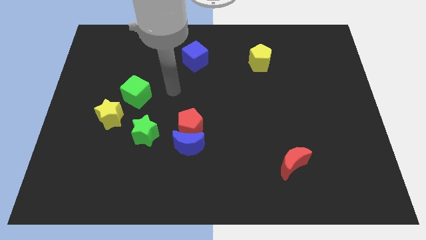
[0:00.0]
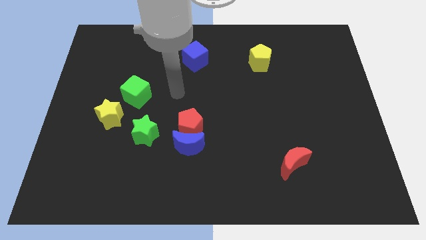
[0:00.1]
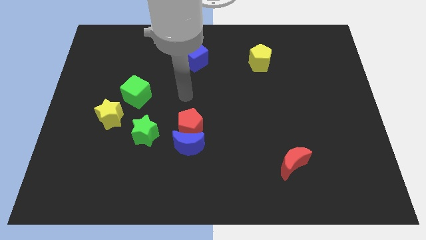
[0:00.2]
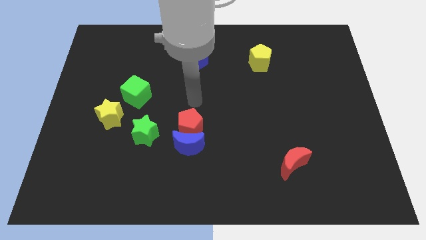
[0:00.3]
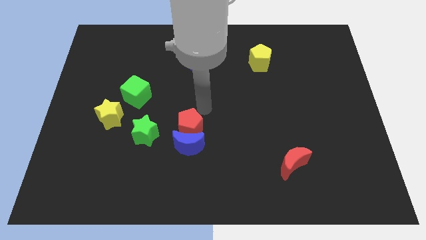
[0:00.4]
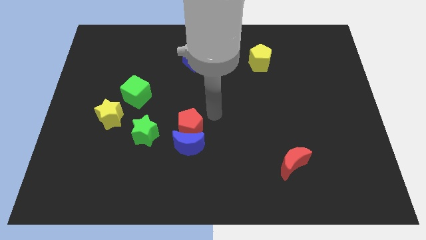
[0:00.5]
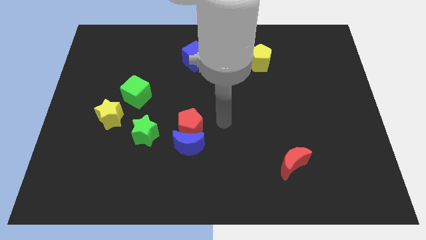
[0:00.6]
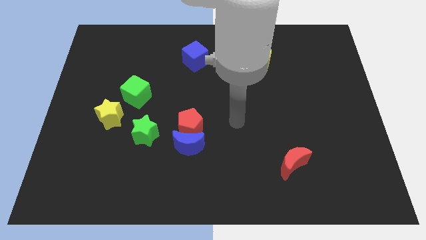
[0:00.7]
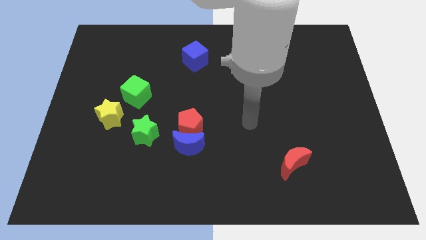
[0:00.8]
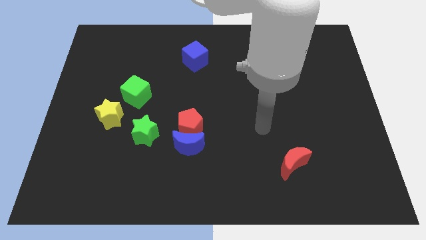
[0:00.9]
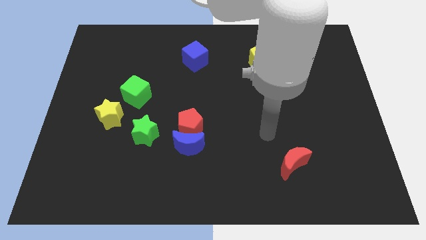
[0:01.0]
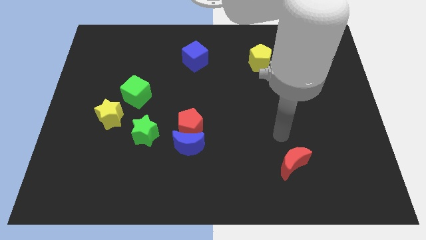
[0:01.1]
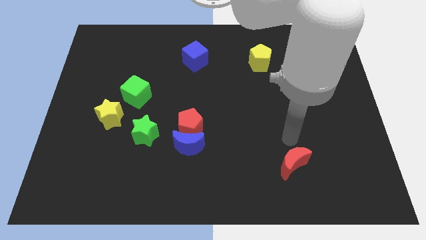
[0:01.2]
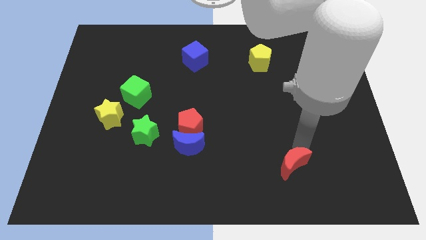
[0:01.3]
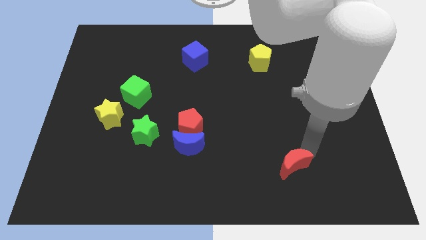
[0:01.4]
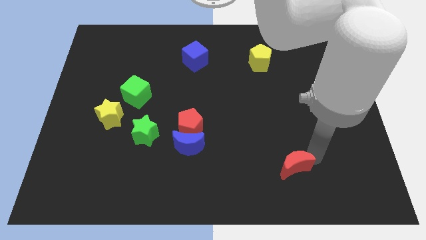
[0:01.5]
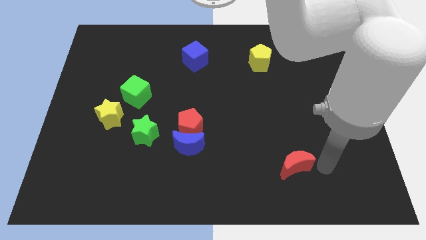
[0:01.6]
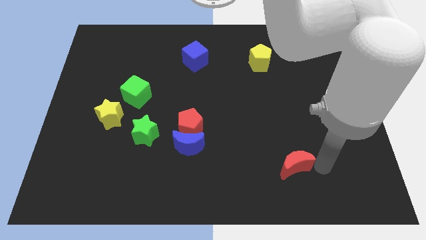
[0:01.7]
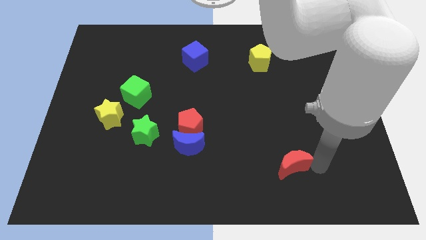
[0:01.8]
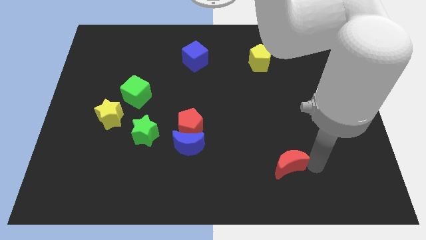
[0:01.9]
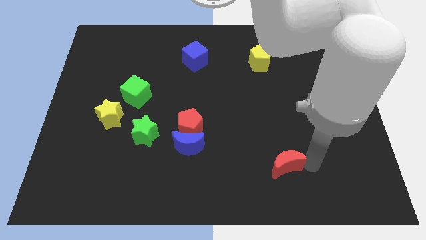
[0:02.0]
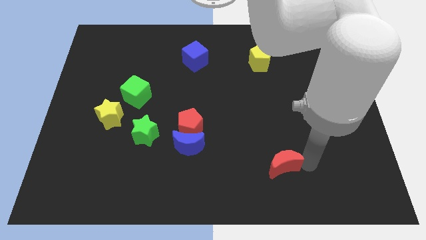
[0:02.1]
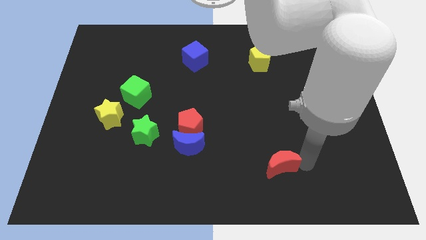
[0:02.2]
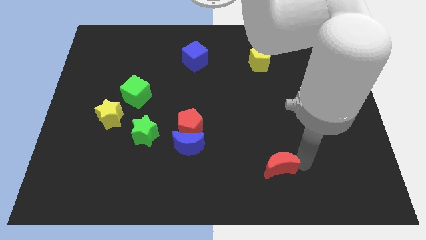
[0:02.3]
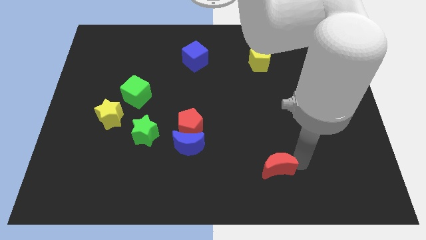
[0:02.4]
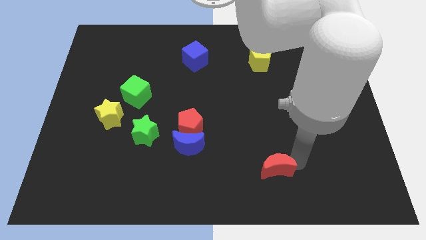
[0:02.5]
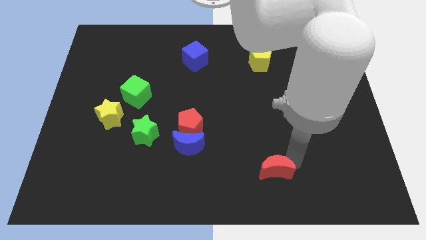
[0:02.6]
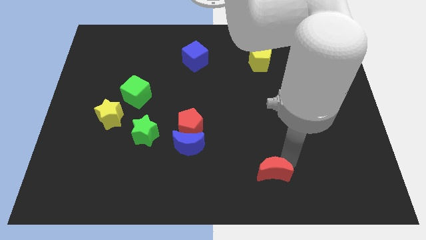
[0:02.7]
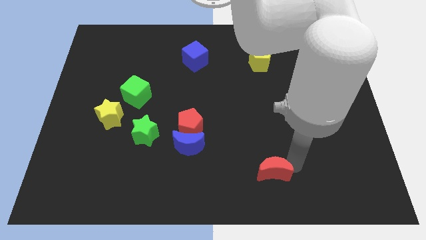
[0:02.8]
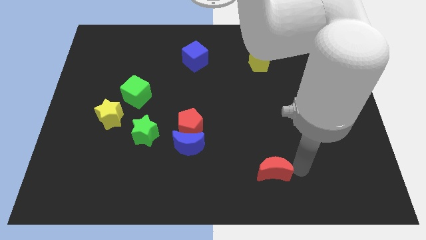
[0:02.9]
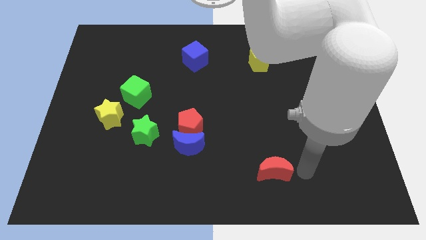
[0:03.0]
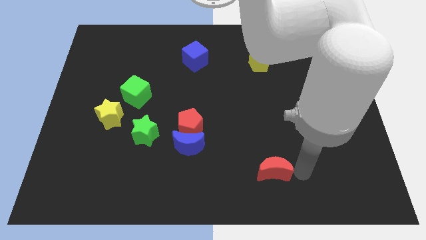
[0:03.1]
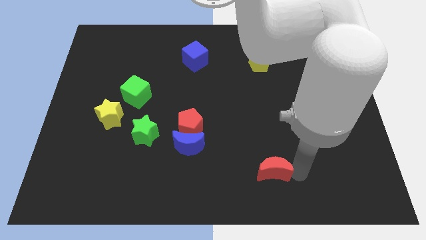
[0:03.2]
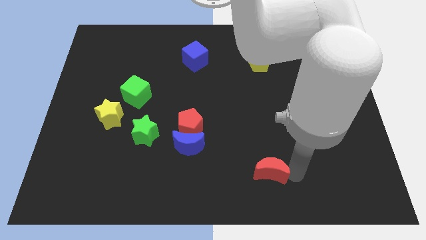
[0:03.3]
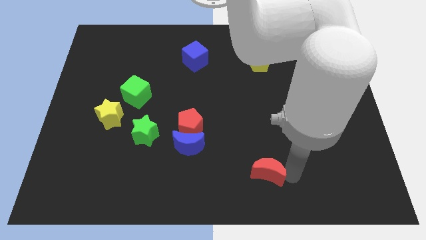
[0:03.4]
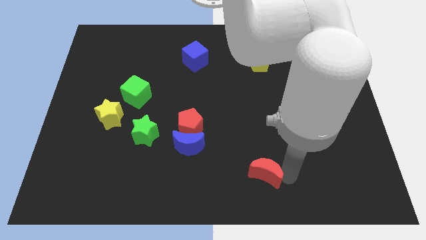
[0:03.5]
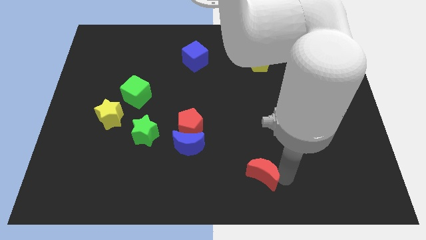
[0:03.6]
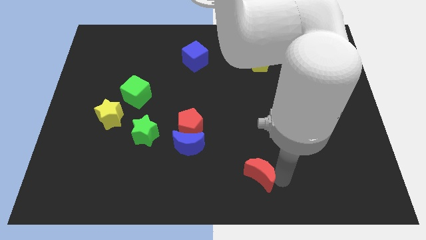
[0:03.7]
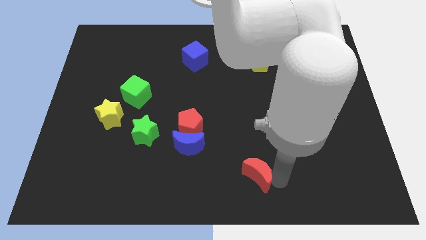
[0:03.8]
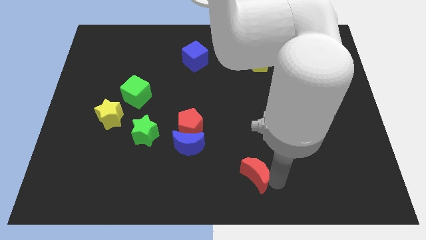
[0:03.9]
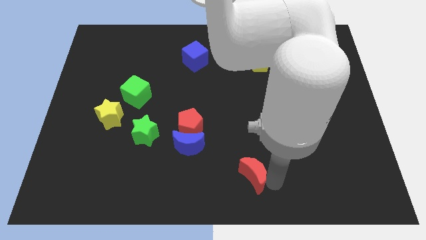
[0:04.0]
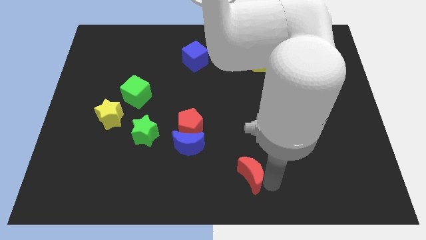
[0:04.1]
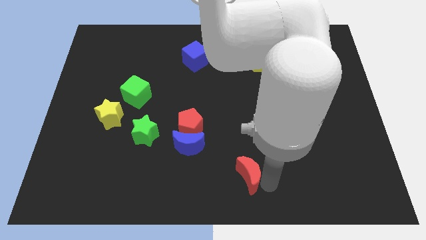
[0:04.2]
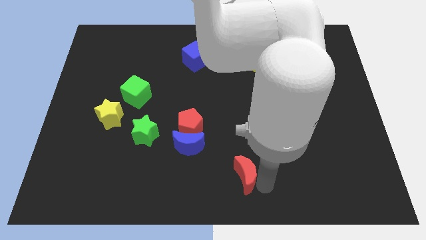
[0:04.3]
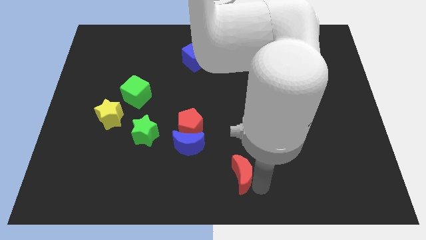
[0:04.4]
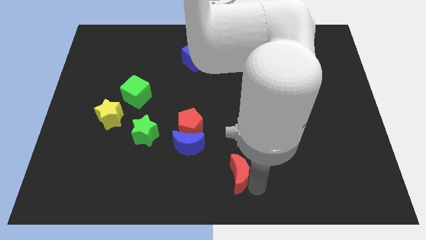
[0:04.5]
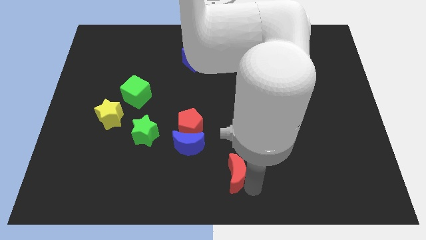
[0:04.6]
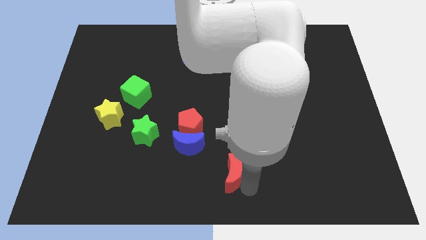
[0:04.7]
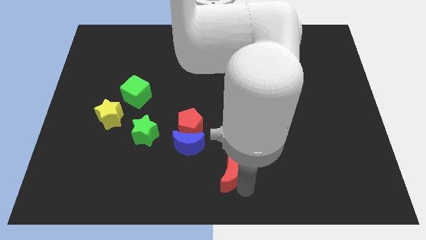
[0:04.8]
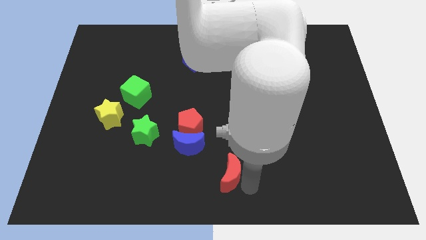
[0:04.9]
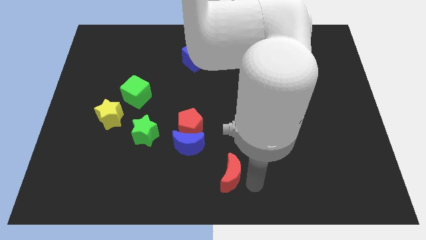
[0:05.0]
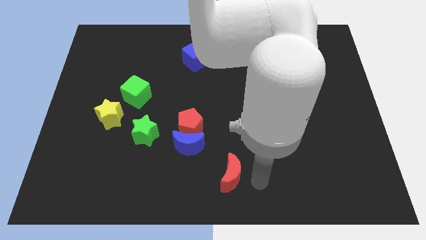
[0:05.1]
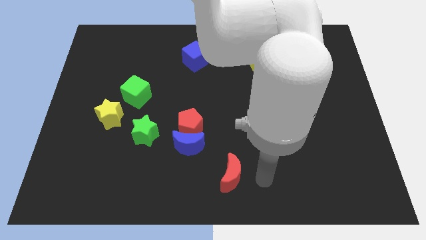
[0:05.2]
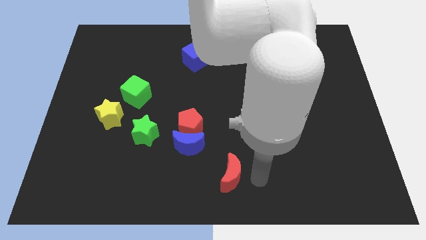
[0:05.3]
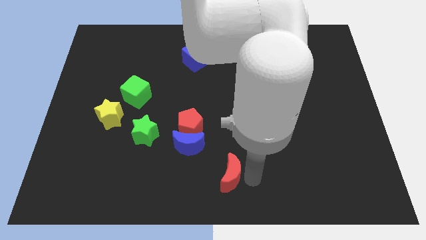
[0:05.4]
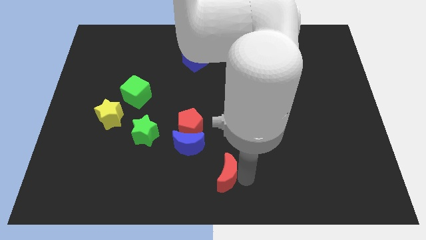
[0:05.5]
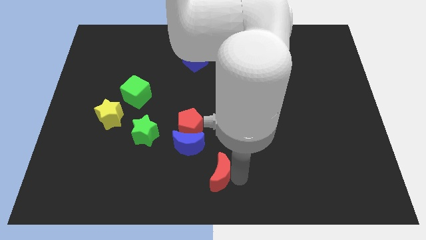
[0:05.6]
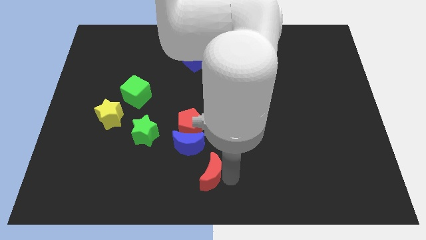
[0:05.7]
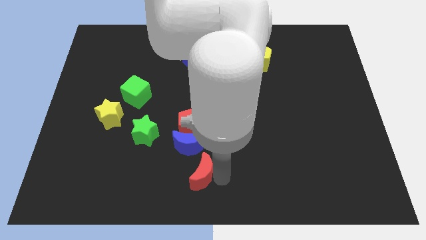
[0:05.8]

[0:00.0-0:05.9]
move the red moon below the red pentagon

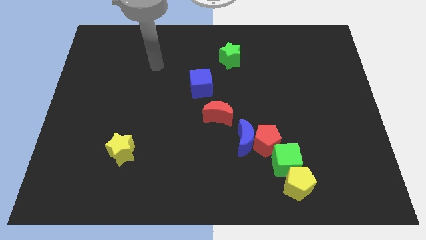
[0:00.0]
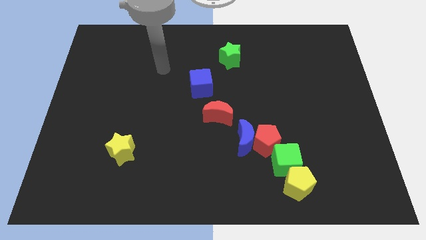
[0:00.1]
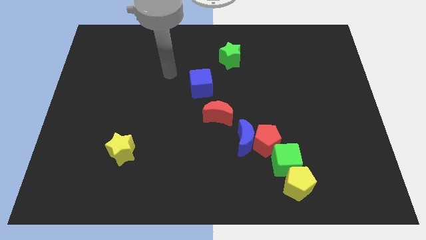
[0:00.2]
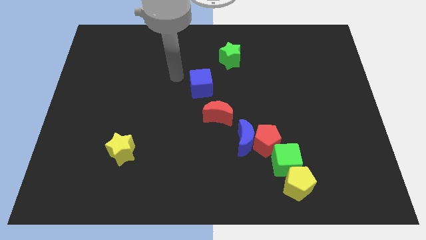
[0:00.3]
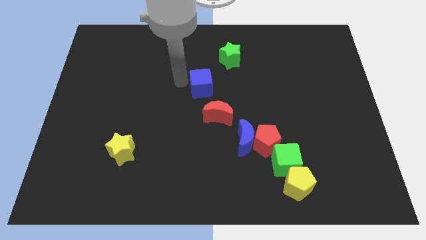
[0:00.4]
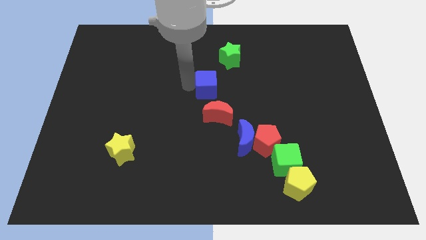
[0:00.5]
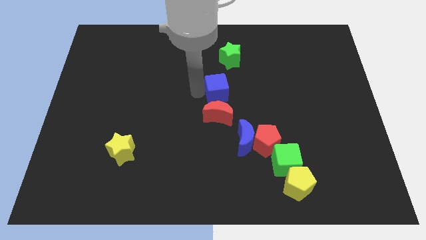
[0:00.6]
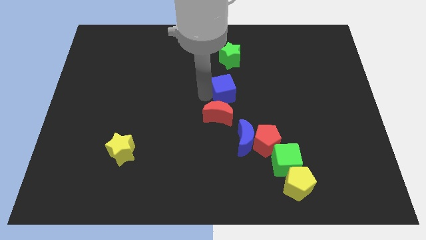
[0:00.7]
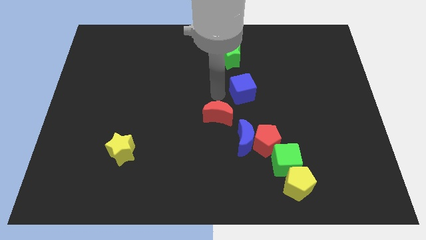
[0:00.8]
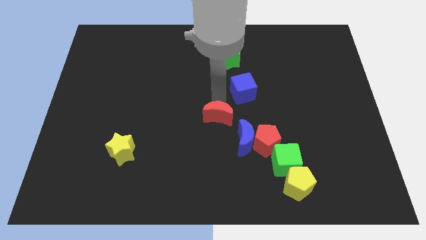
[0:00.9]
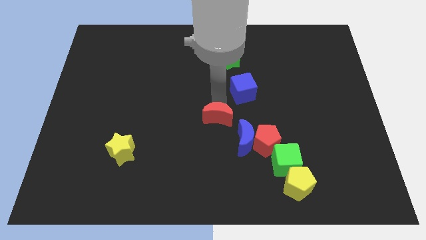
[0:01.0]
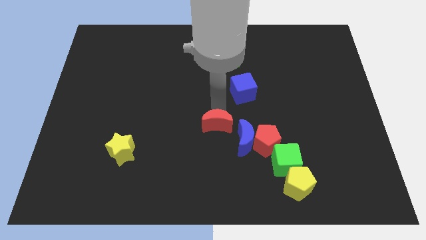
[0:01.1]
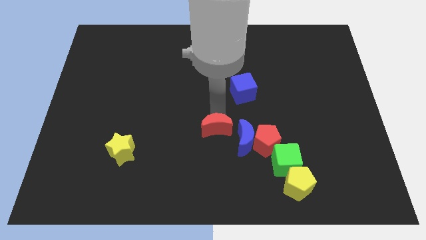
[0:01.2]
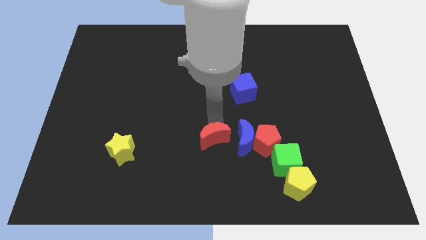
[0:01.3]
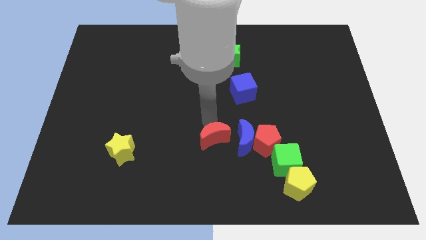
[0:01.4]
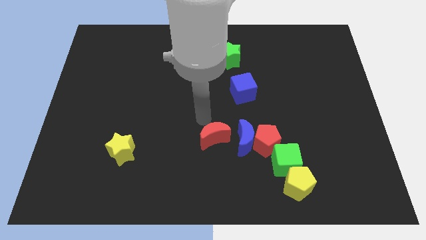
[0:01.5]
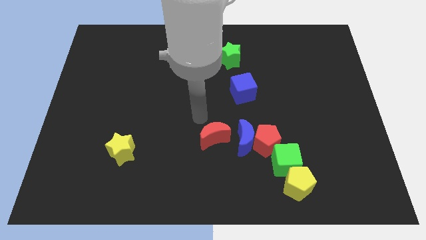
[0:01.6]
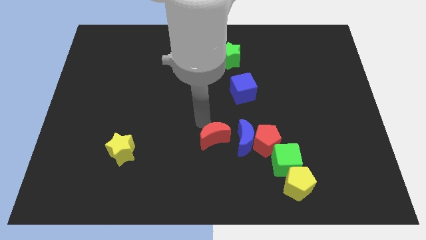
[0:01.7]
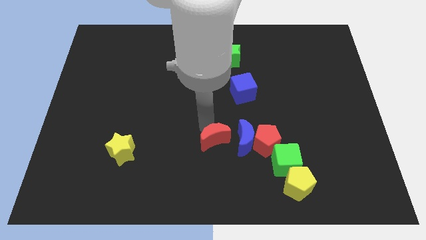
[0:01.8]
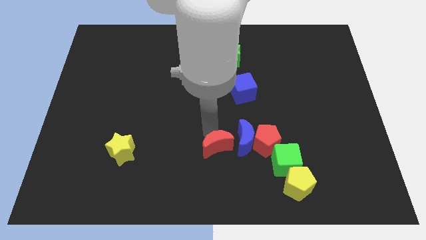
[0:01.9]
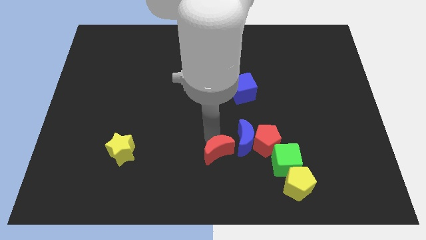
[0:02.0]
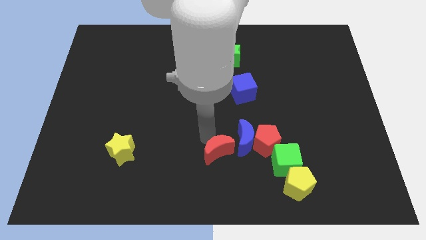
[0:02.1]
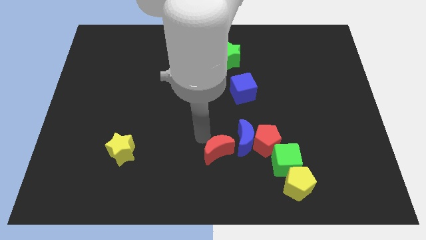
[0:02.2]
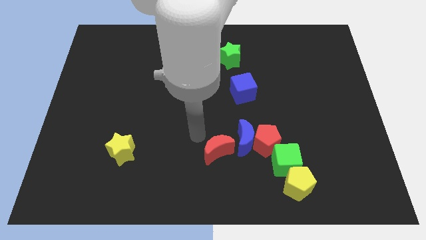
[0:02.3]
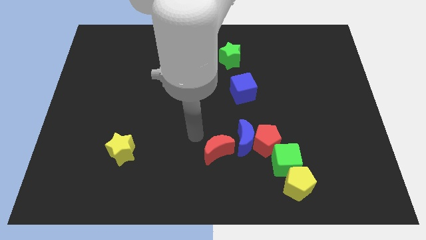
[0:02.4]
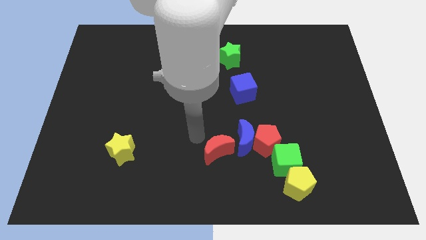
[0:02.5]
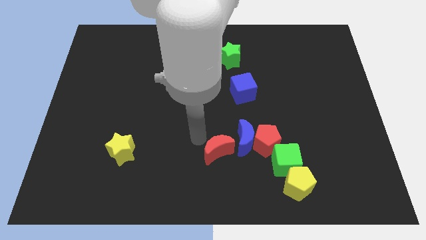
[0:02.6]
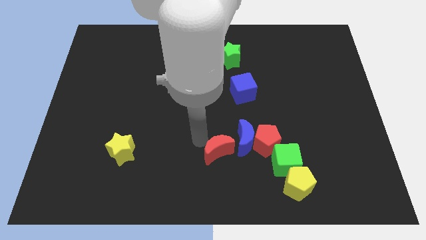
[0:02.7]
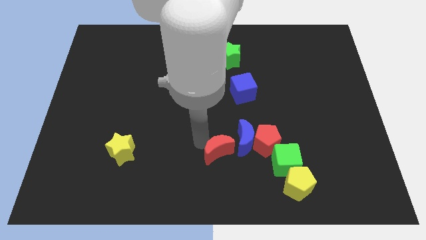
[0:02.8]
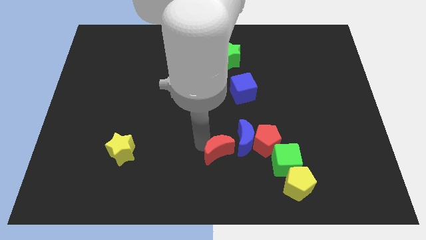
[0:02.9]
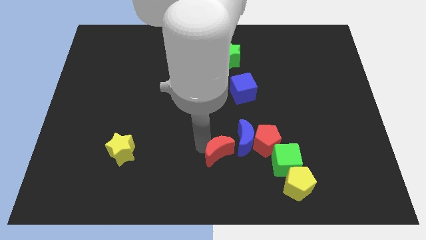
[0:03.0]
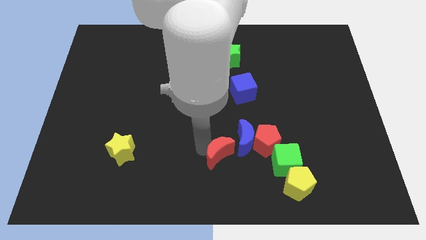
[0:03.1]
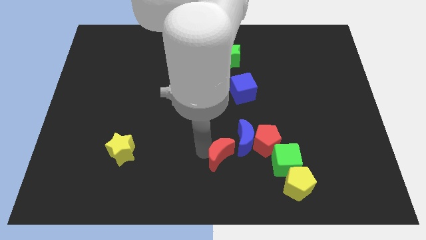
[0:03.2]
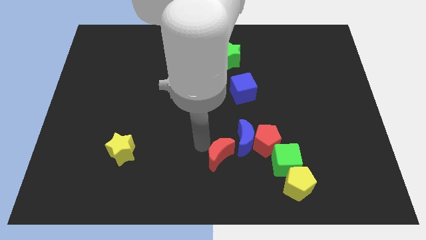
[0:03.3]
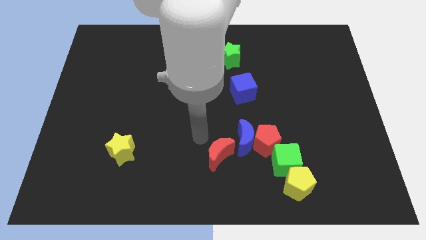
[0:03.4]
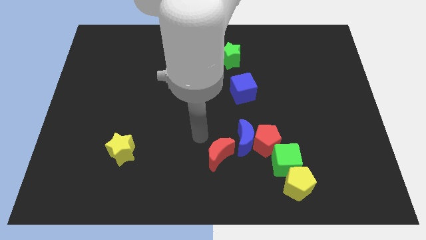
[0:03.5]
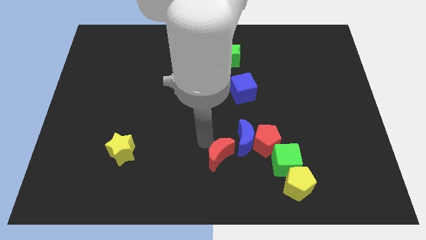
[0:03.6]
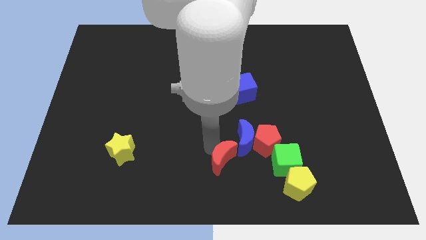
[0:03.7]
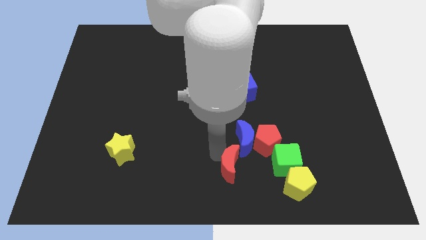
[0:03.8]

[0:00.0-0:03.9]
slide the red moon to the bottom side of the blue moon
